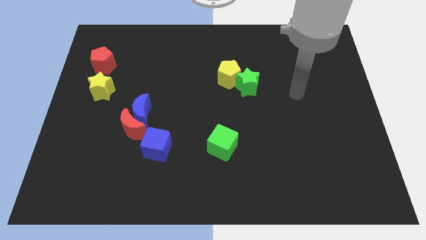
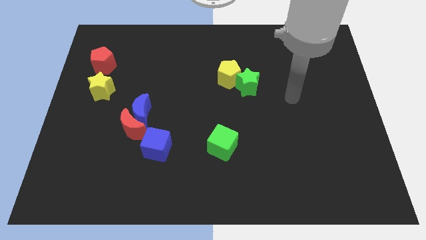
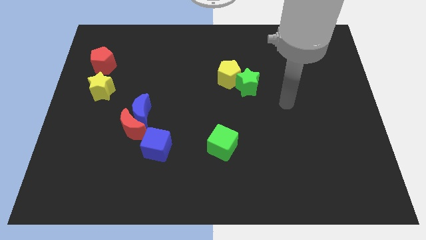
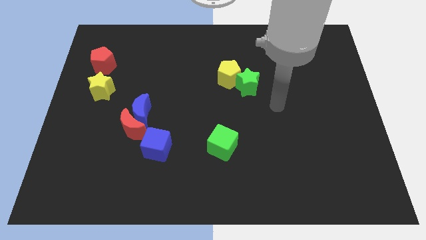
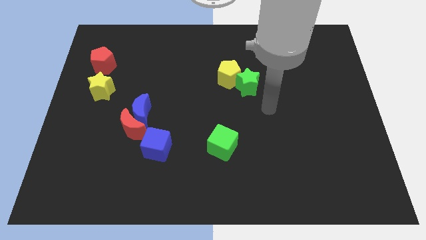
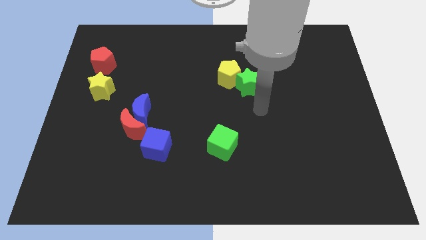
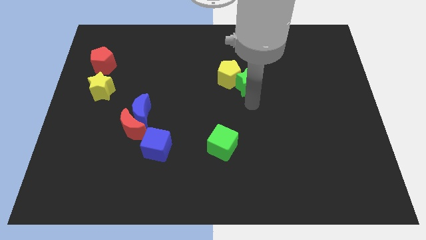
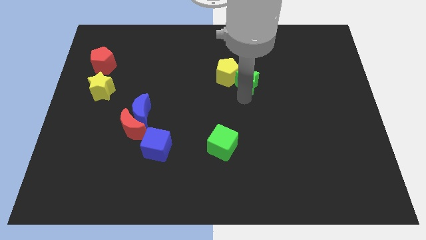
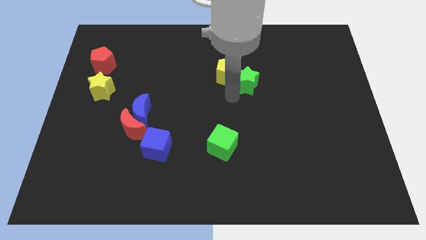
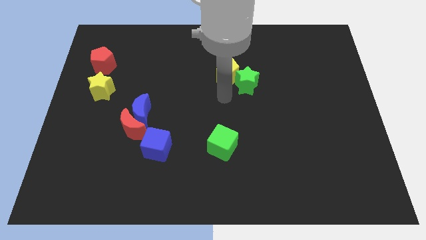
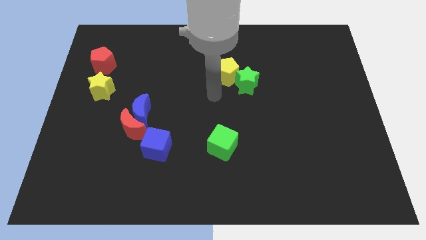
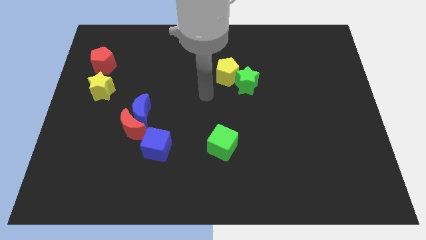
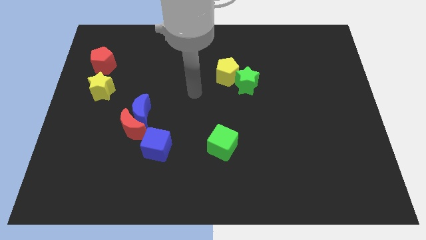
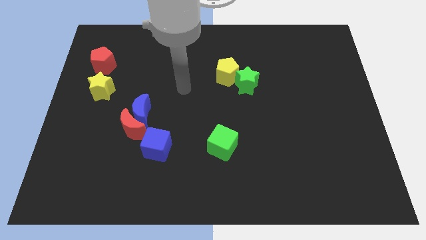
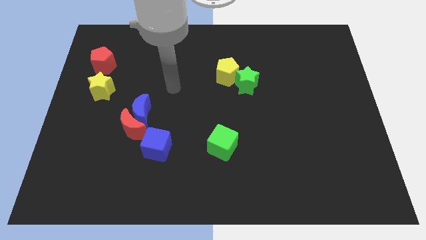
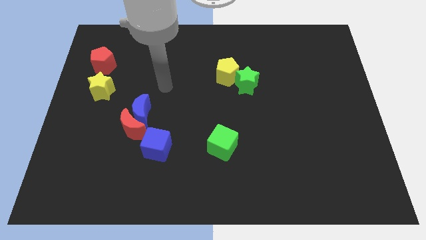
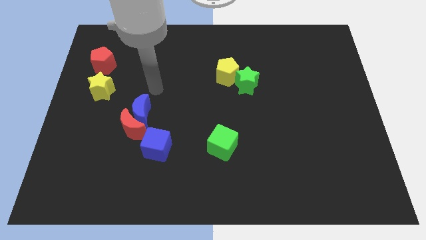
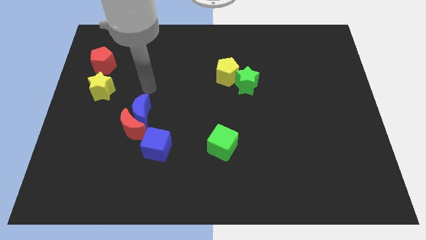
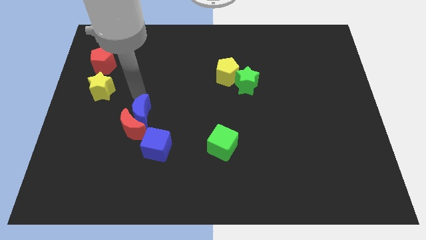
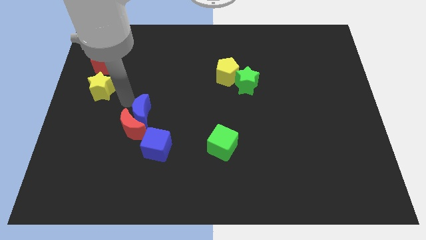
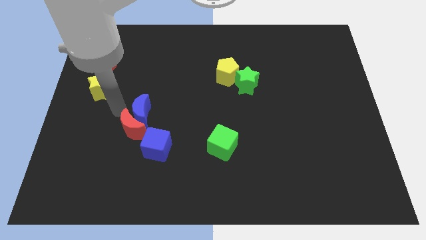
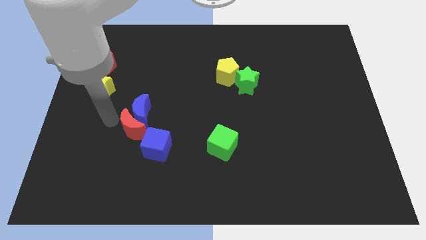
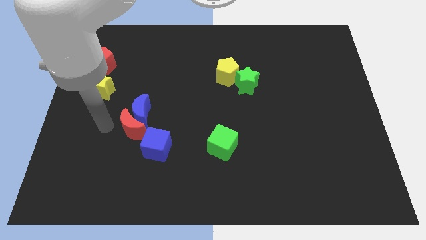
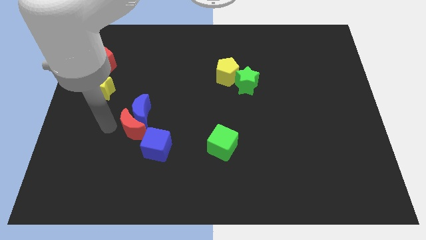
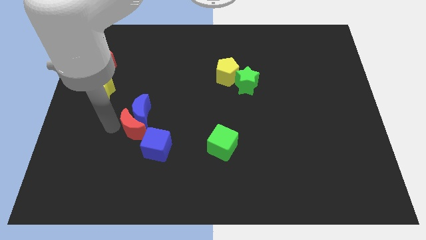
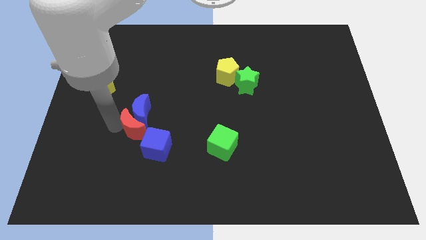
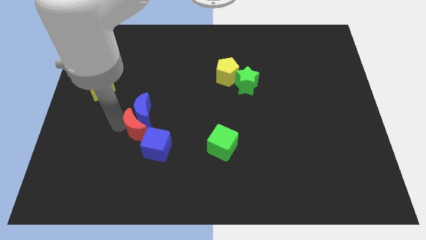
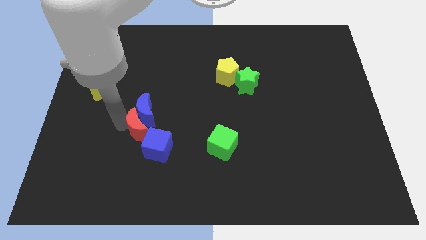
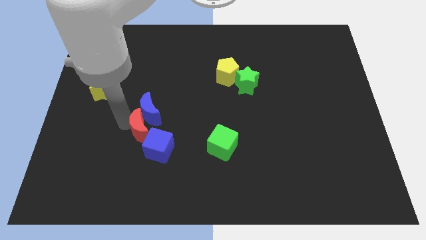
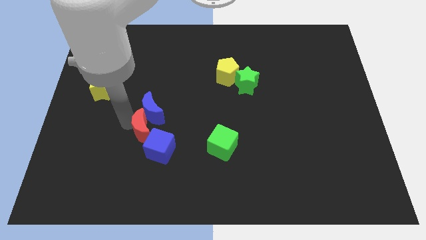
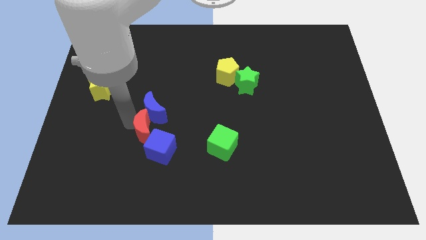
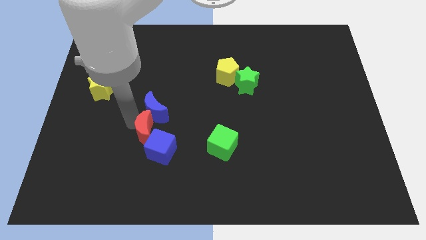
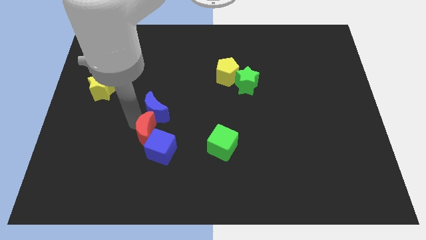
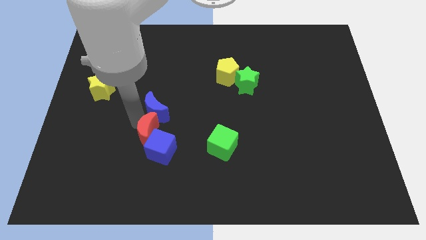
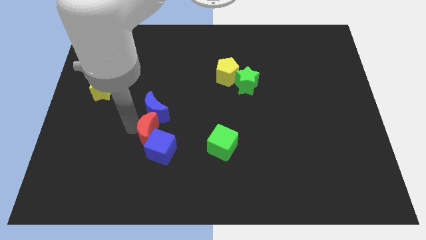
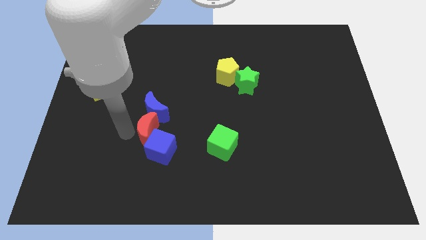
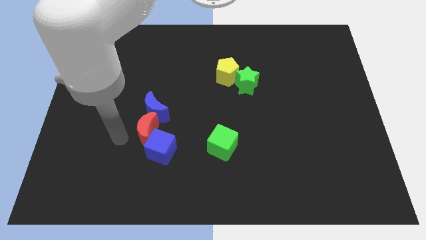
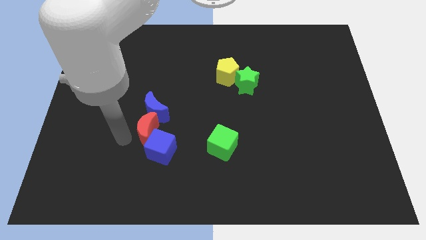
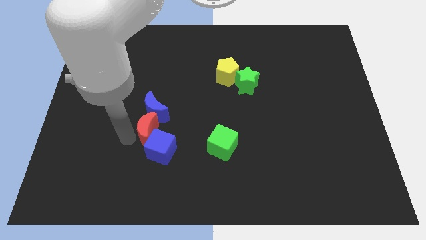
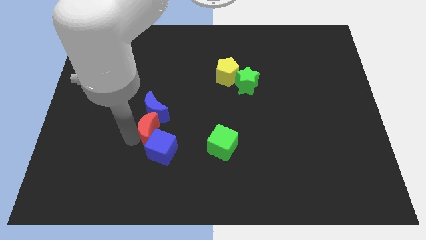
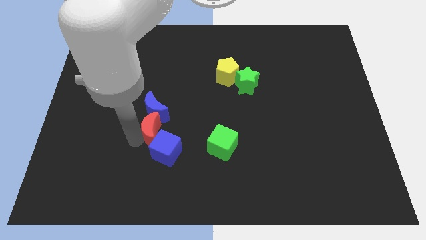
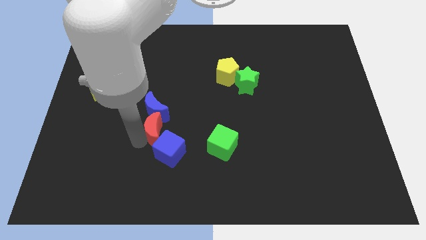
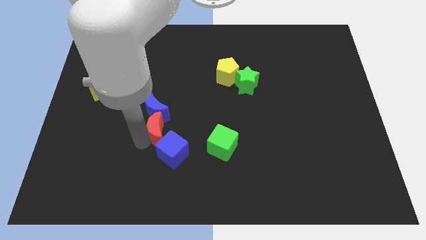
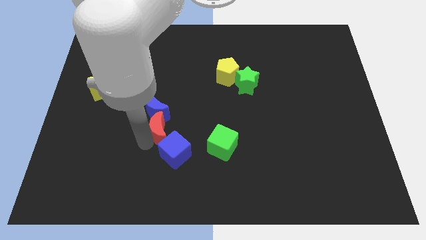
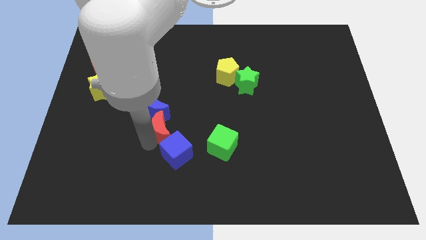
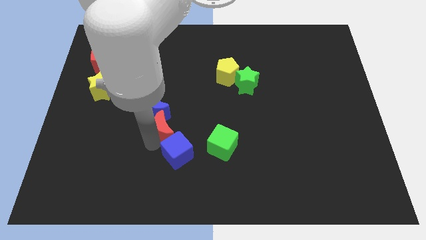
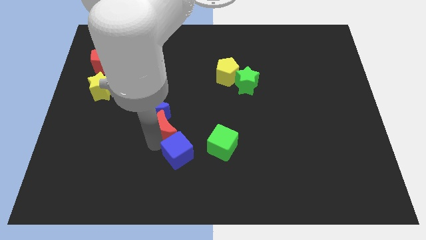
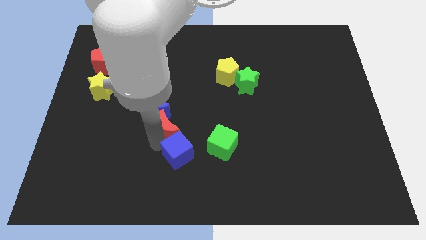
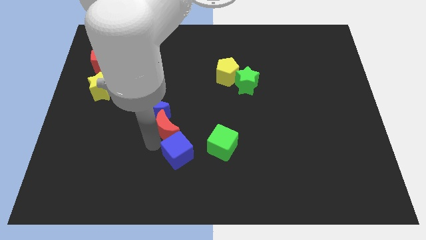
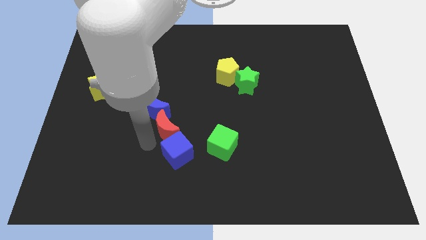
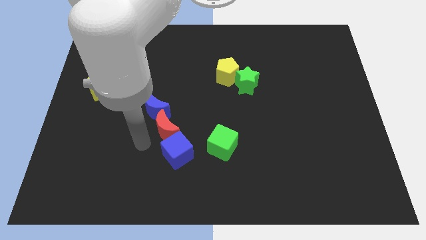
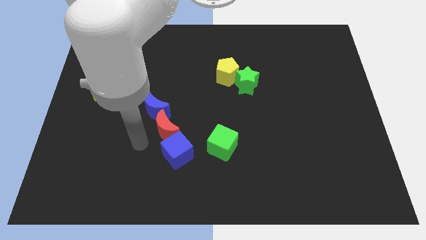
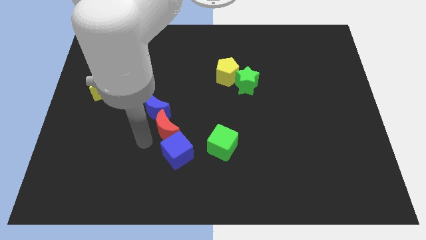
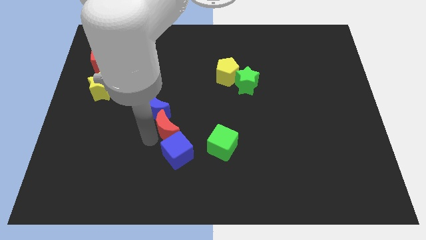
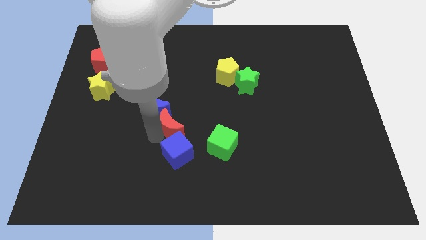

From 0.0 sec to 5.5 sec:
move the red moon to the center of the board

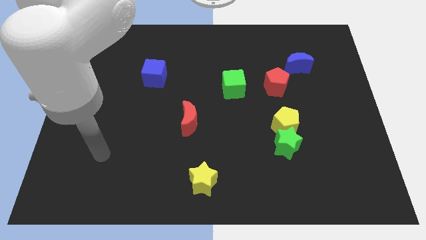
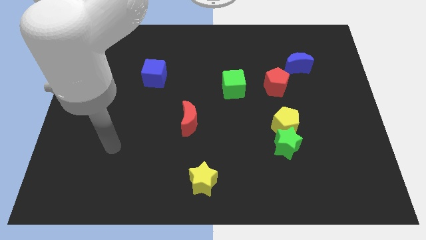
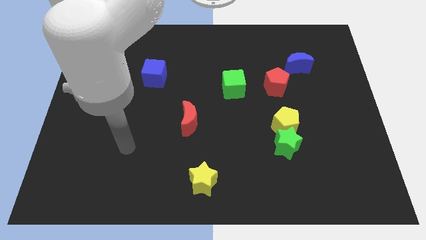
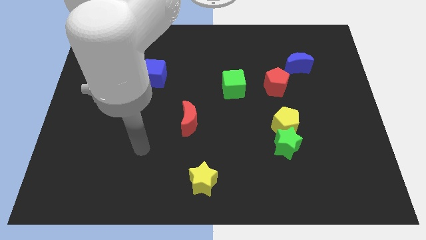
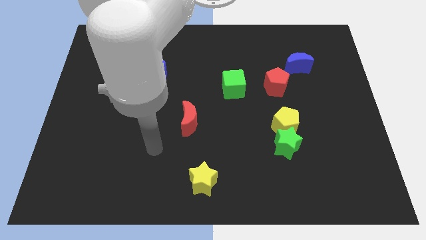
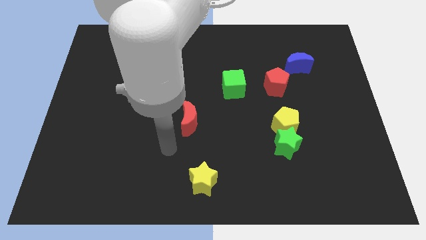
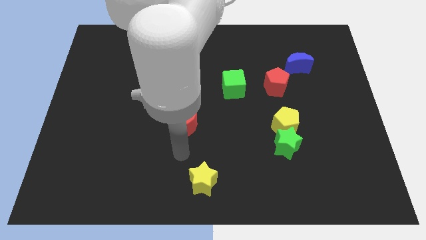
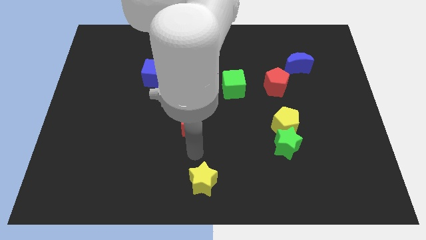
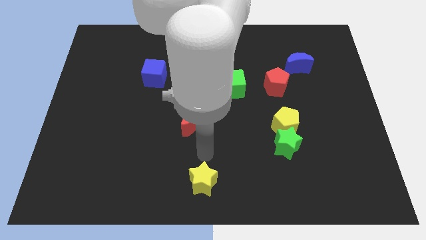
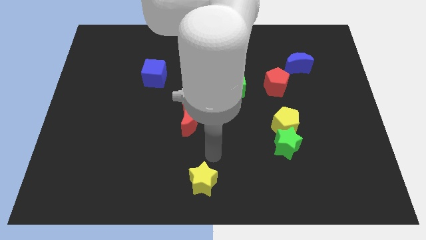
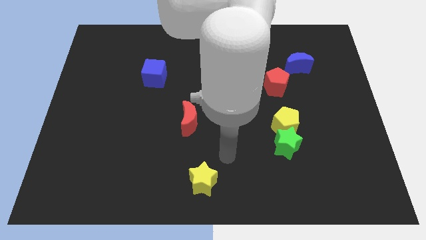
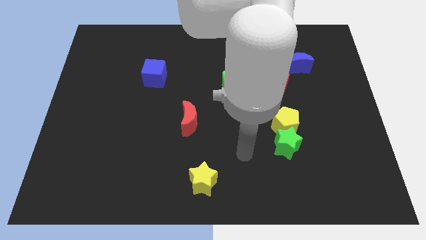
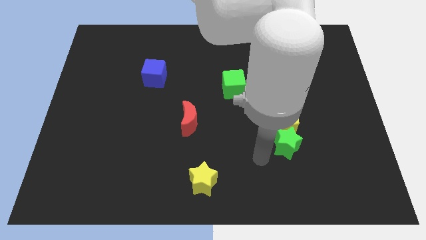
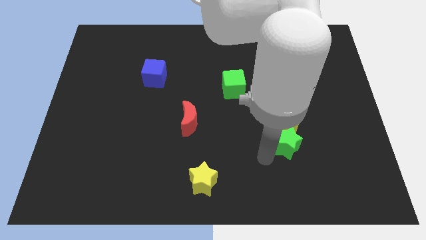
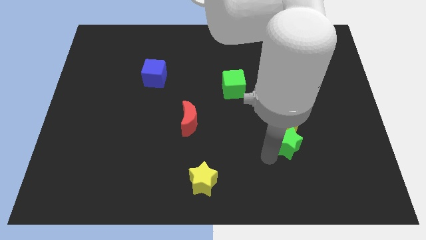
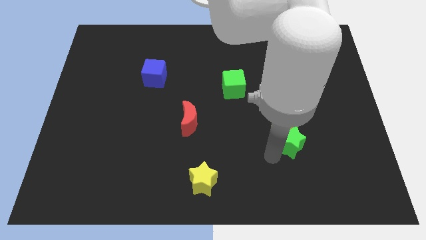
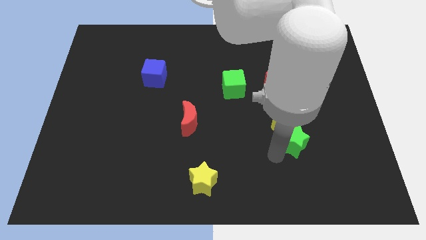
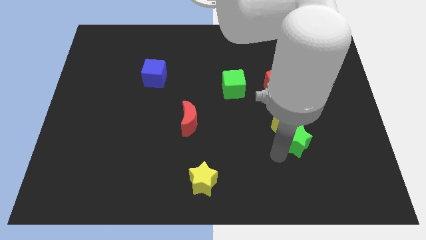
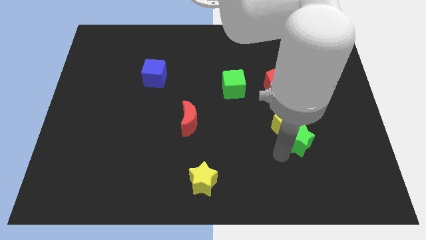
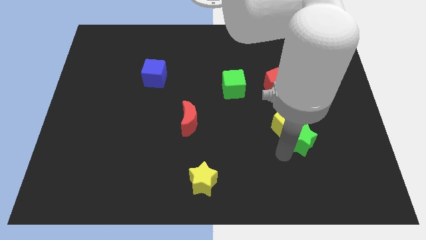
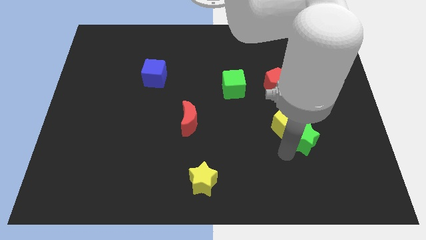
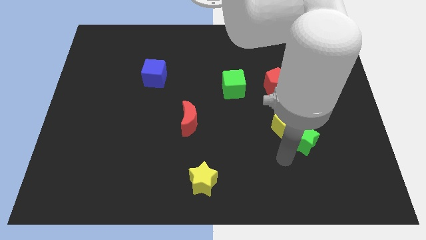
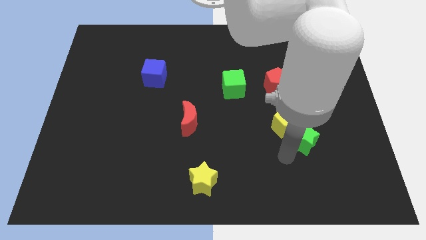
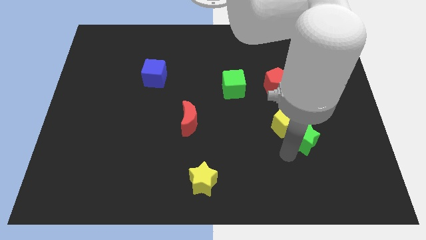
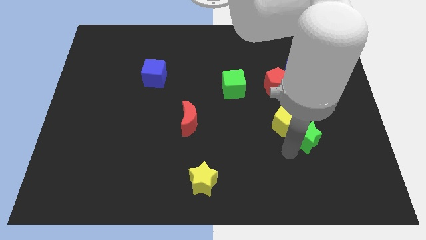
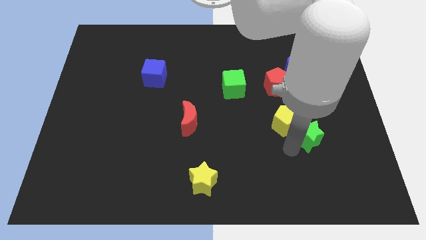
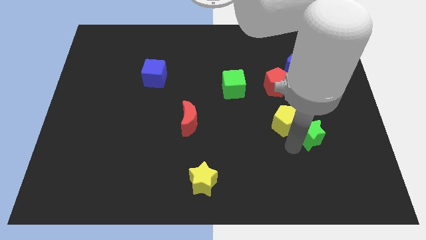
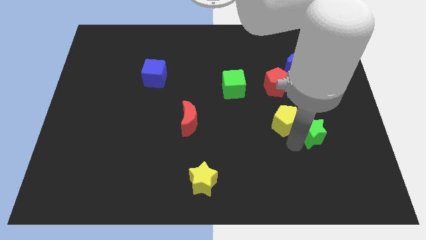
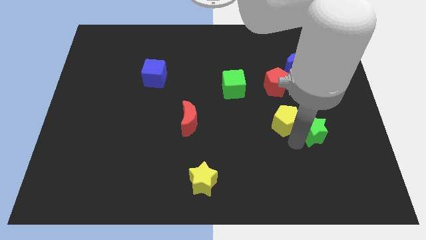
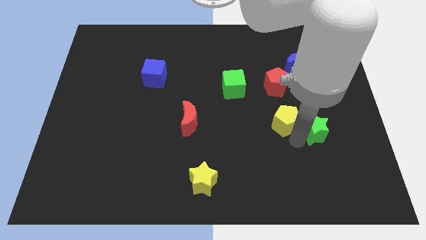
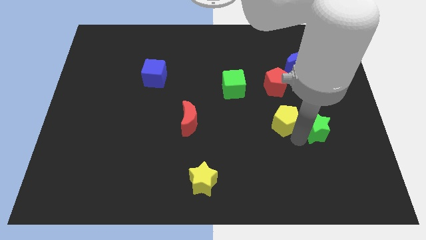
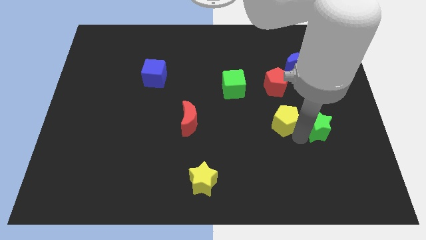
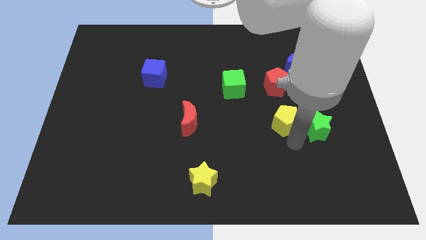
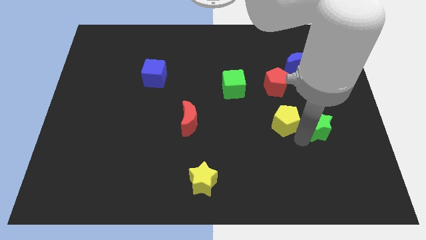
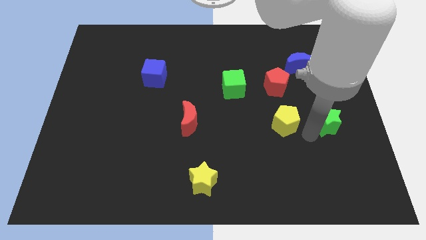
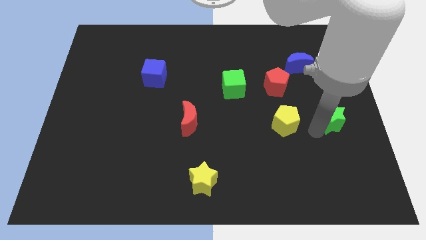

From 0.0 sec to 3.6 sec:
put the green star to the right side
